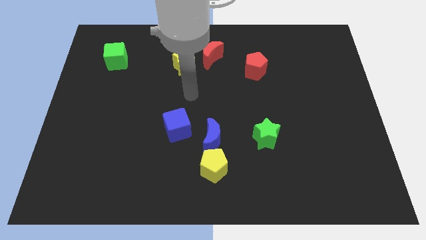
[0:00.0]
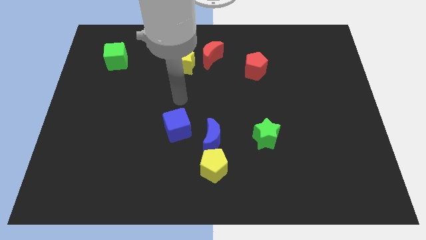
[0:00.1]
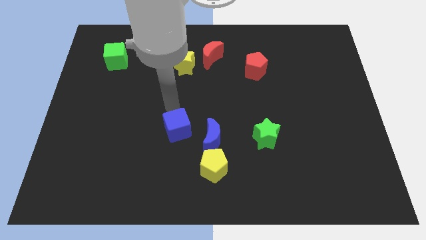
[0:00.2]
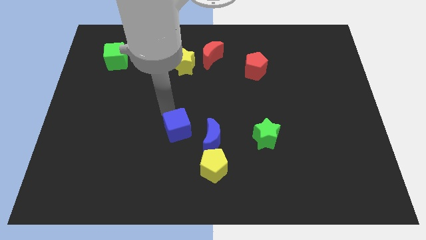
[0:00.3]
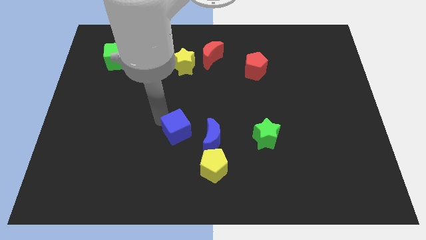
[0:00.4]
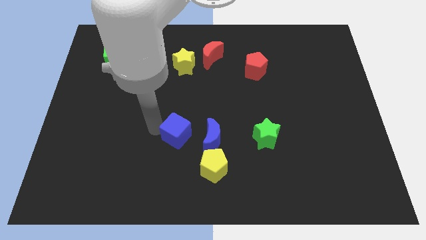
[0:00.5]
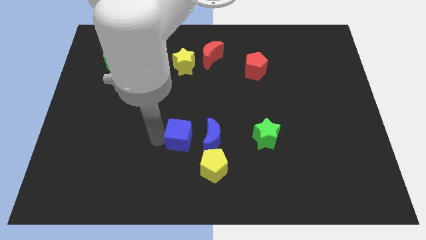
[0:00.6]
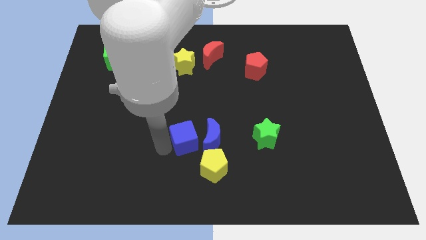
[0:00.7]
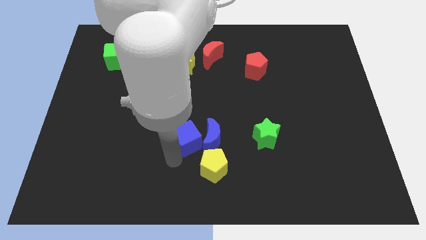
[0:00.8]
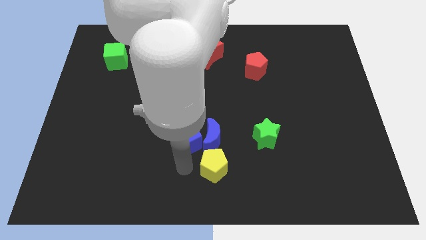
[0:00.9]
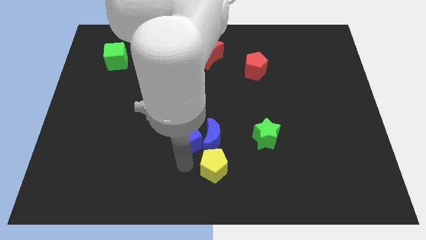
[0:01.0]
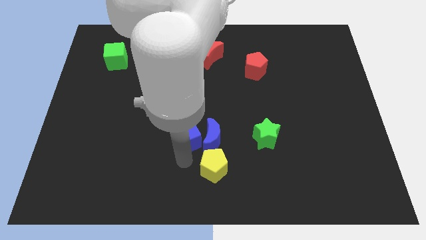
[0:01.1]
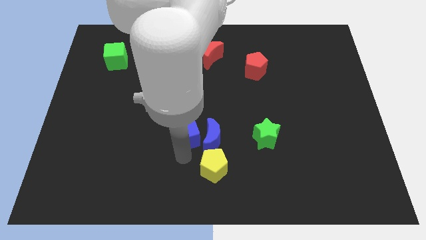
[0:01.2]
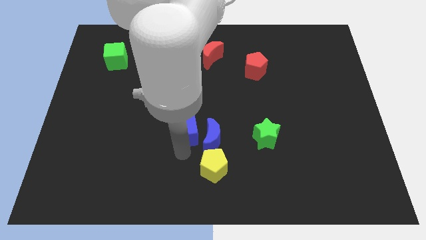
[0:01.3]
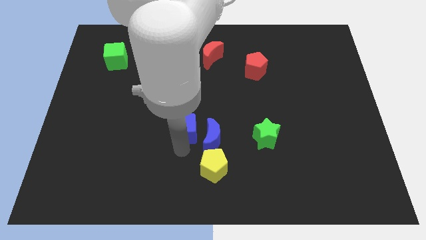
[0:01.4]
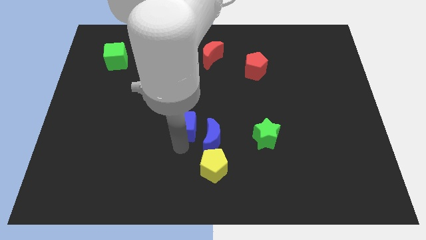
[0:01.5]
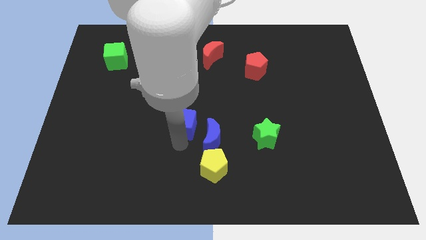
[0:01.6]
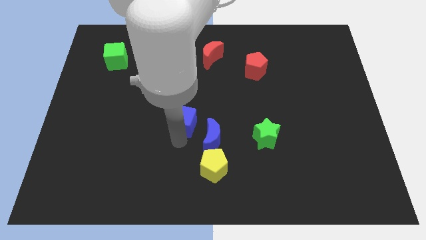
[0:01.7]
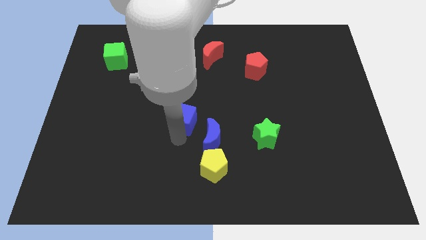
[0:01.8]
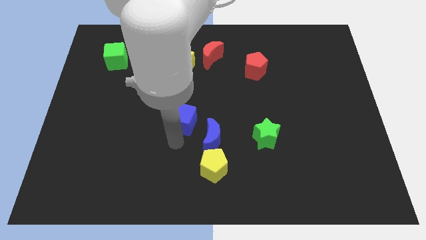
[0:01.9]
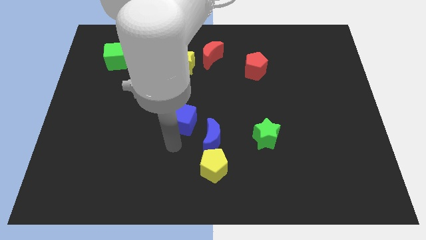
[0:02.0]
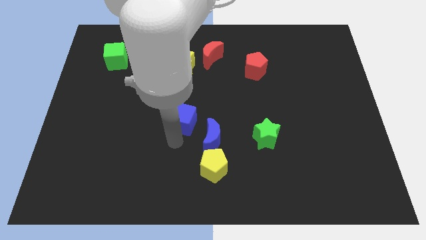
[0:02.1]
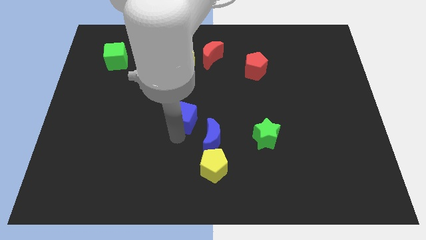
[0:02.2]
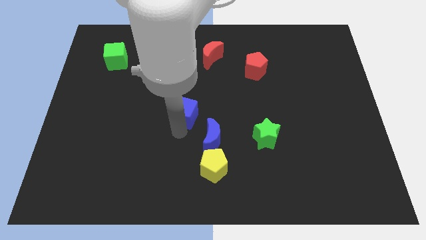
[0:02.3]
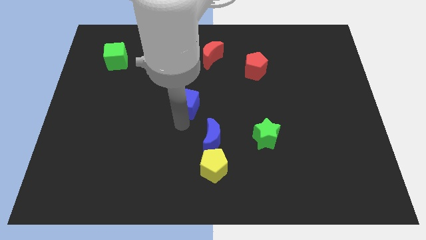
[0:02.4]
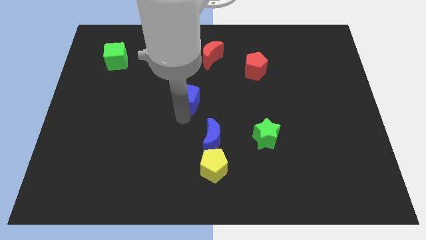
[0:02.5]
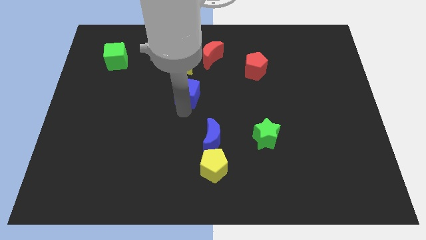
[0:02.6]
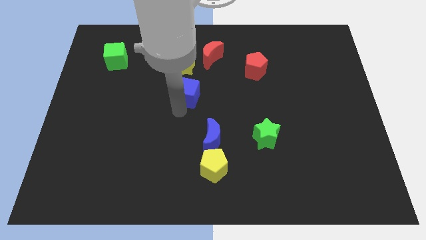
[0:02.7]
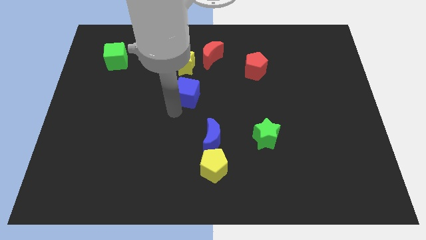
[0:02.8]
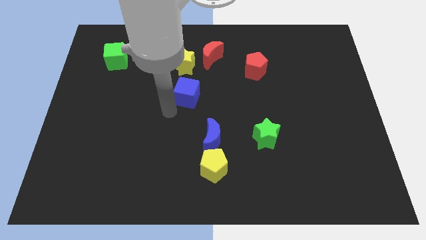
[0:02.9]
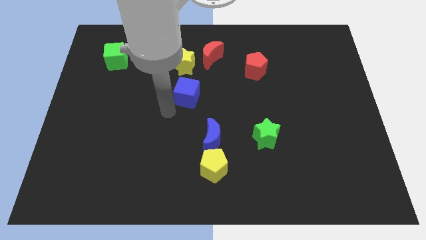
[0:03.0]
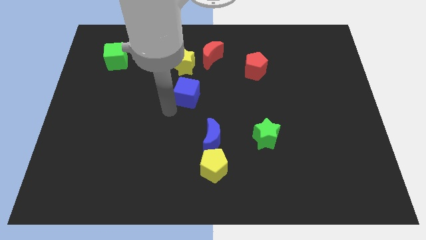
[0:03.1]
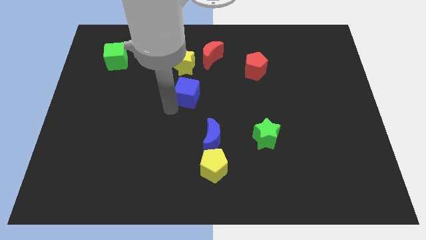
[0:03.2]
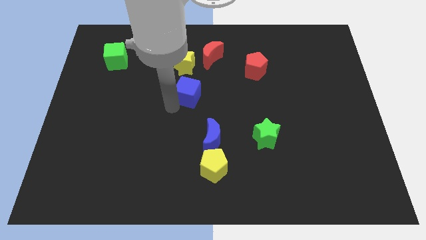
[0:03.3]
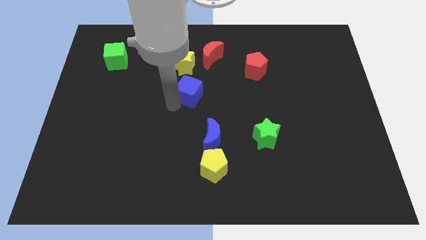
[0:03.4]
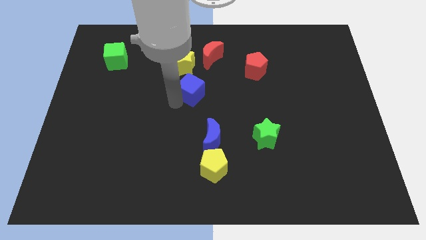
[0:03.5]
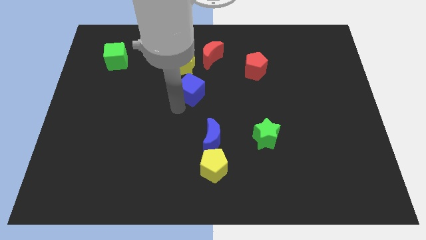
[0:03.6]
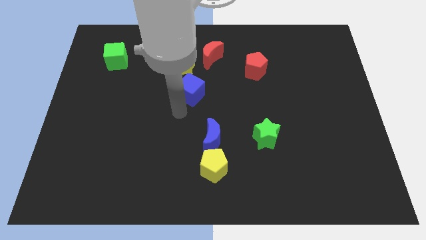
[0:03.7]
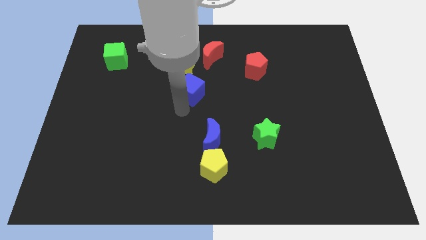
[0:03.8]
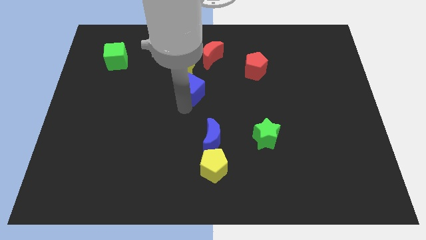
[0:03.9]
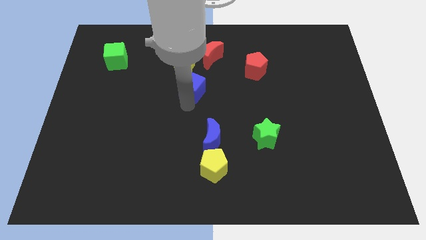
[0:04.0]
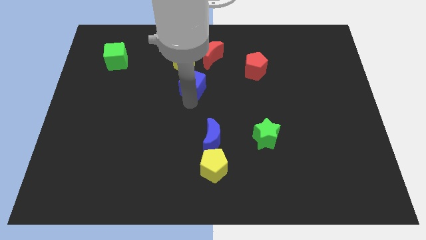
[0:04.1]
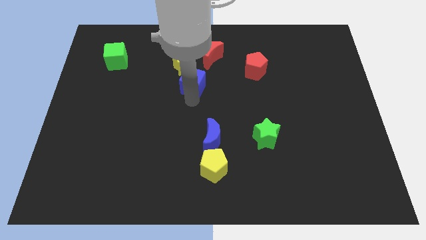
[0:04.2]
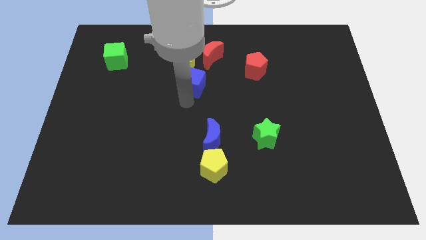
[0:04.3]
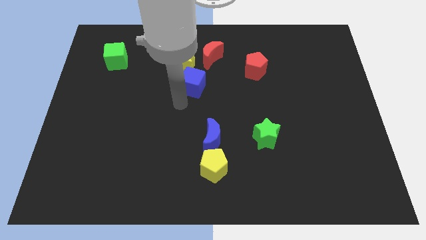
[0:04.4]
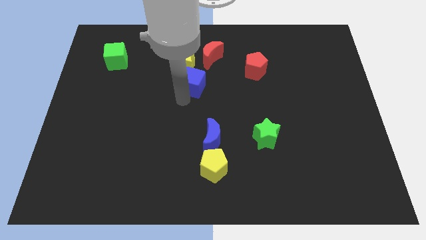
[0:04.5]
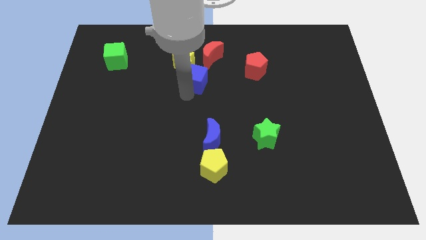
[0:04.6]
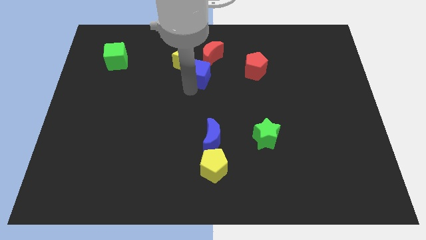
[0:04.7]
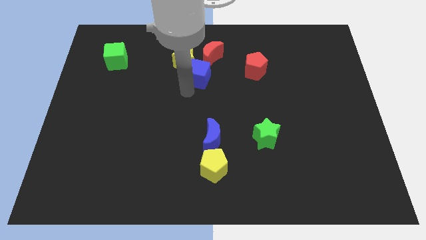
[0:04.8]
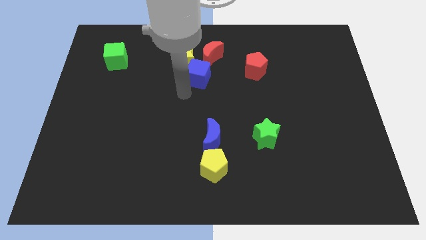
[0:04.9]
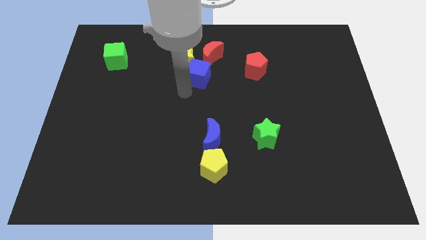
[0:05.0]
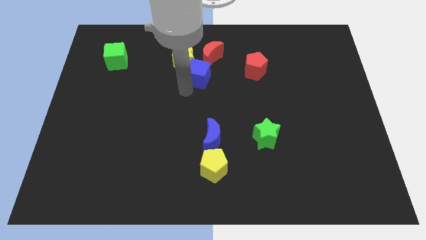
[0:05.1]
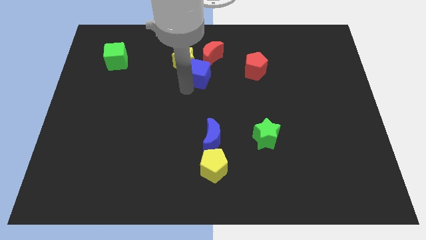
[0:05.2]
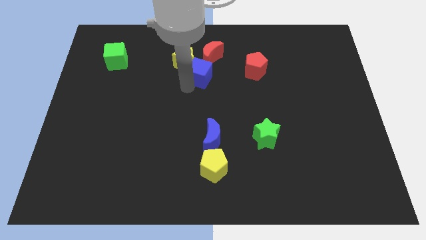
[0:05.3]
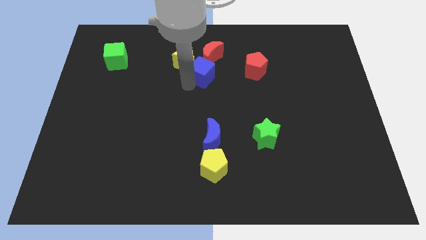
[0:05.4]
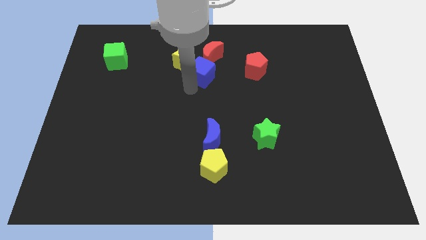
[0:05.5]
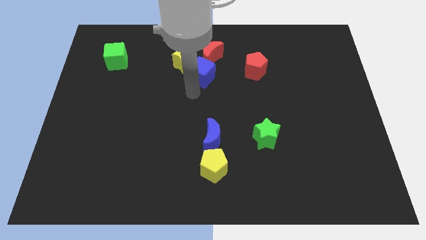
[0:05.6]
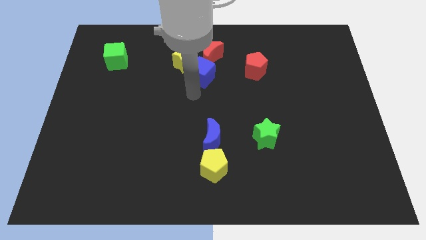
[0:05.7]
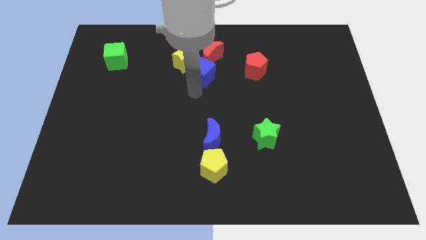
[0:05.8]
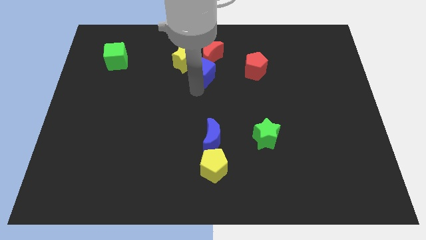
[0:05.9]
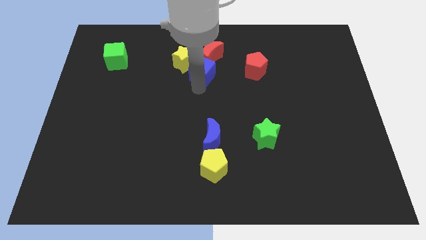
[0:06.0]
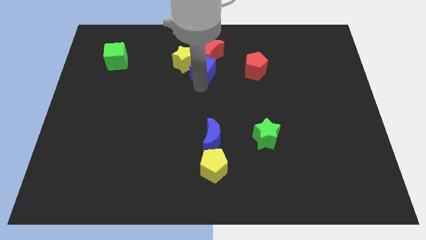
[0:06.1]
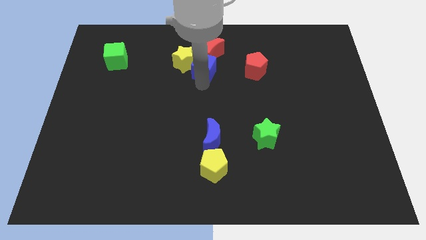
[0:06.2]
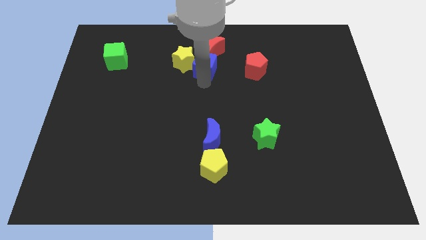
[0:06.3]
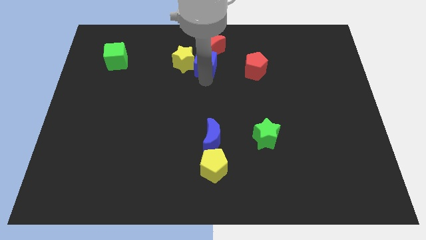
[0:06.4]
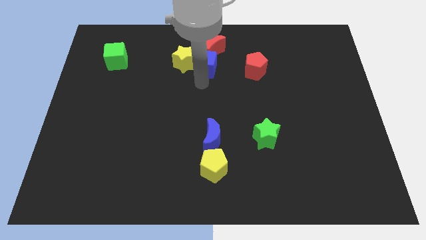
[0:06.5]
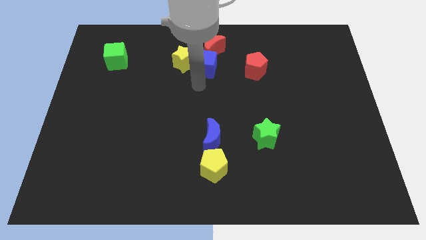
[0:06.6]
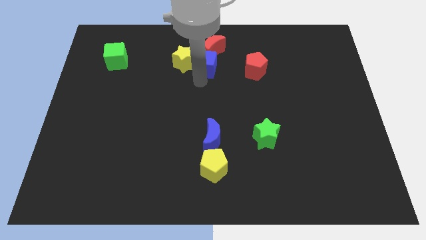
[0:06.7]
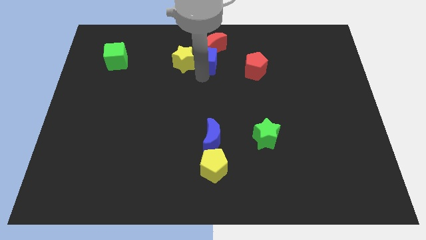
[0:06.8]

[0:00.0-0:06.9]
put the blue cube towards the red moon
